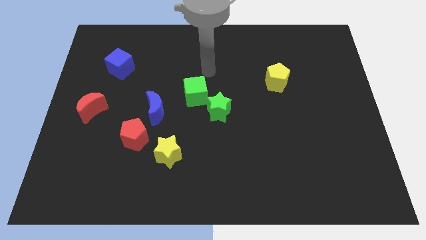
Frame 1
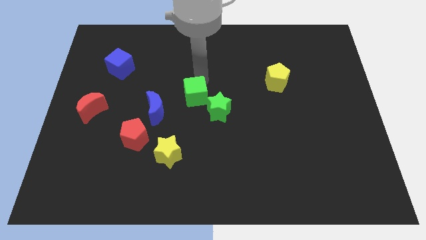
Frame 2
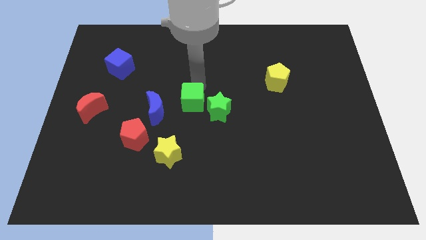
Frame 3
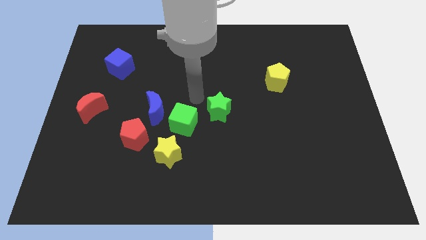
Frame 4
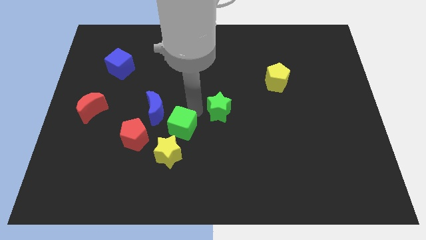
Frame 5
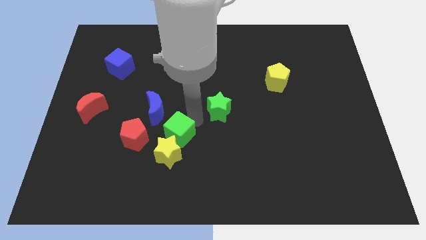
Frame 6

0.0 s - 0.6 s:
move the green star away from the green cube

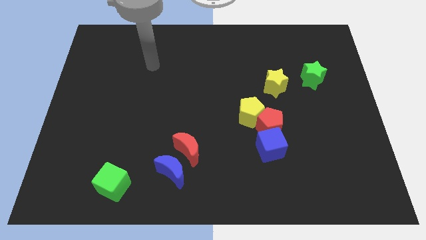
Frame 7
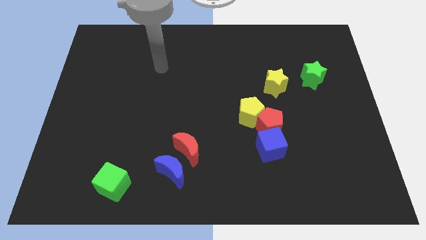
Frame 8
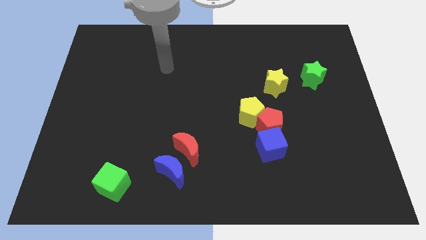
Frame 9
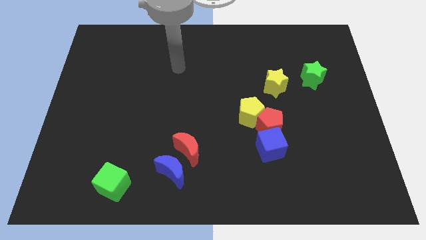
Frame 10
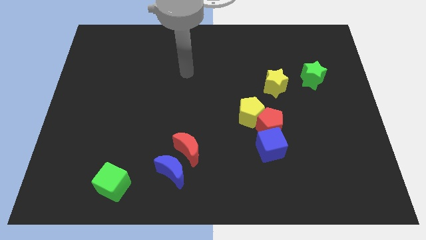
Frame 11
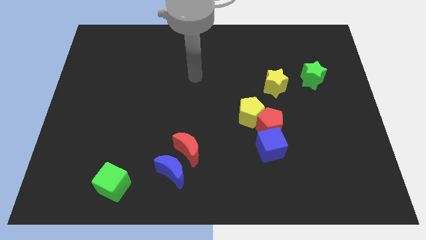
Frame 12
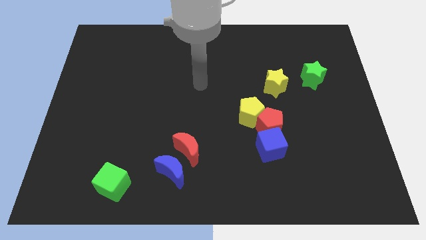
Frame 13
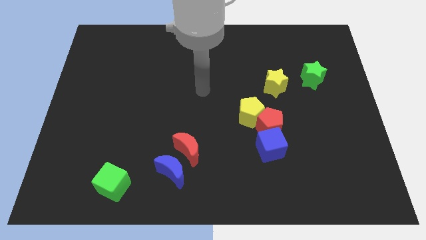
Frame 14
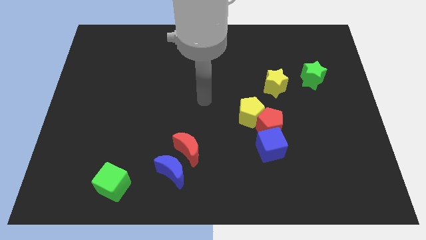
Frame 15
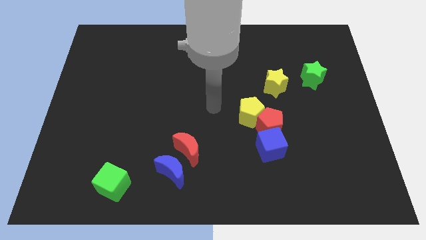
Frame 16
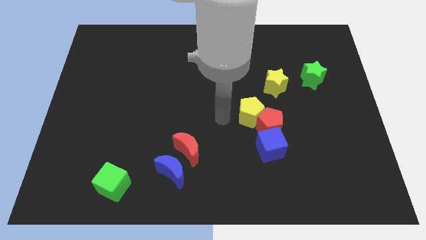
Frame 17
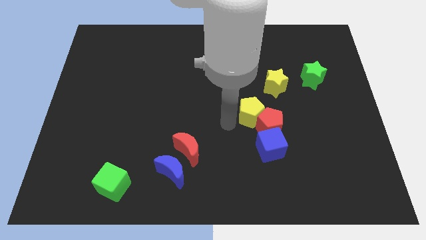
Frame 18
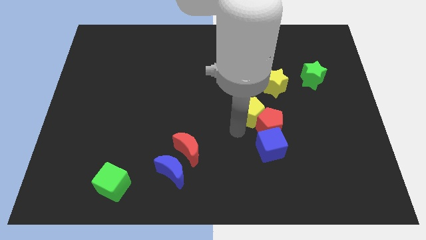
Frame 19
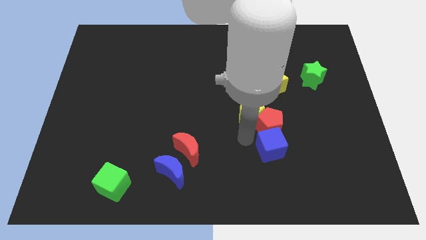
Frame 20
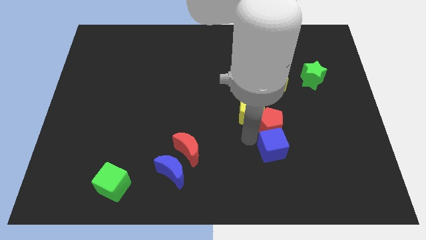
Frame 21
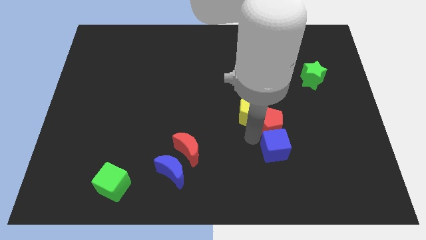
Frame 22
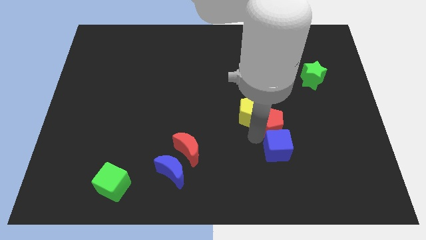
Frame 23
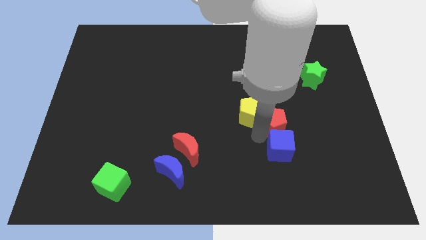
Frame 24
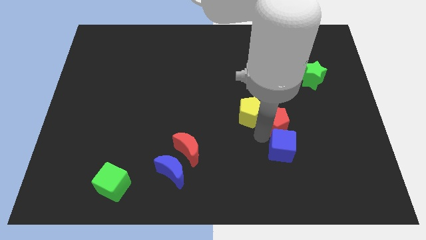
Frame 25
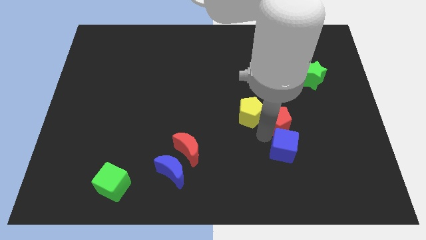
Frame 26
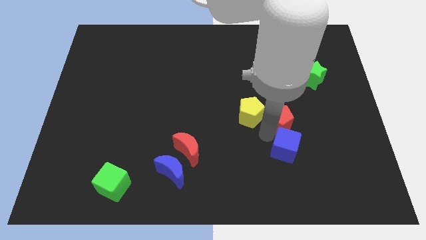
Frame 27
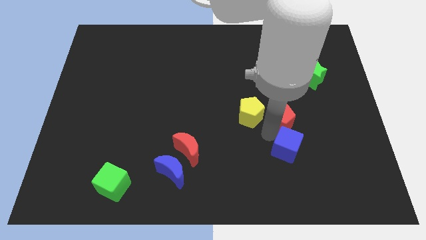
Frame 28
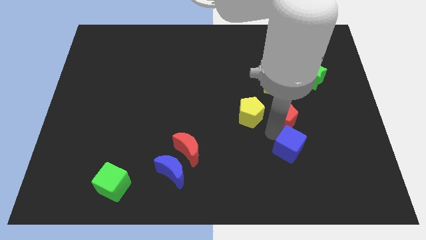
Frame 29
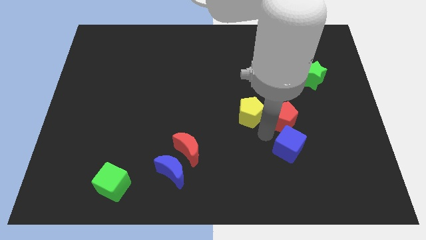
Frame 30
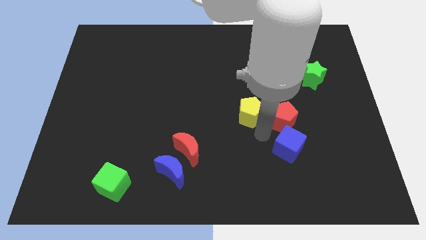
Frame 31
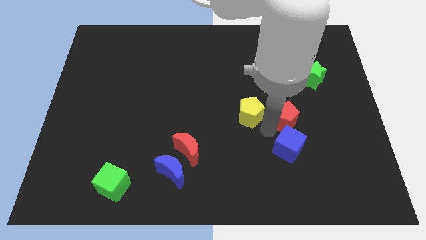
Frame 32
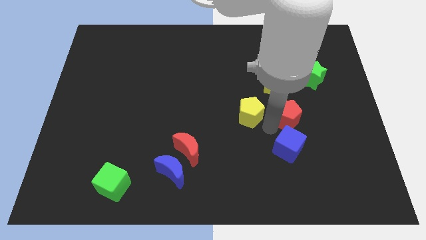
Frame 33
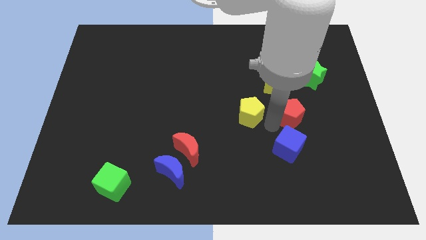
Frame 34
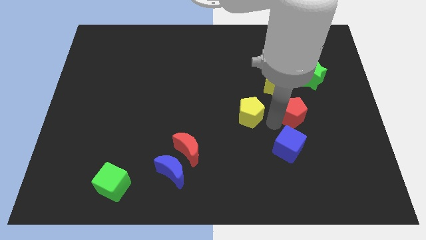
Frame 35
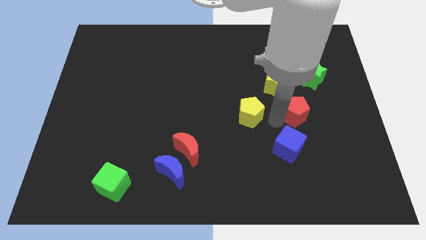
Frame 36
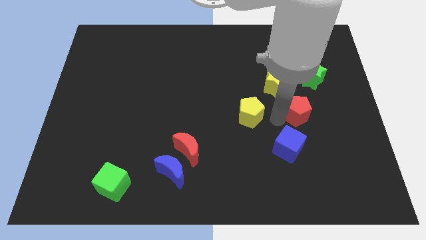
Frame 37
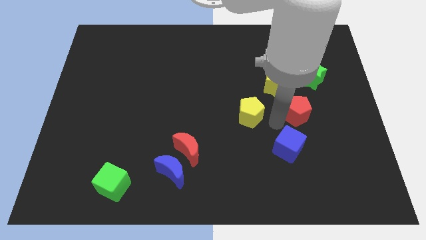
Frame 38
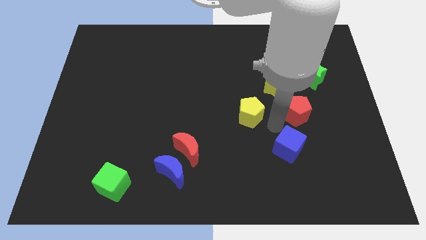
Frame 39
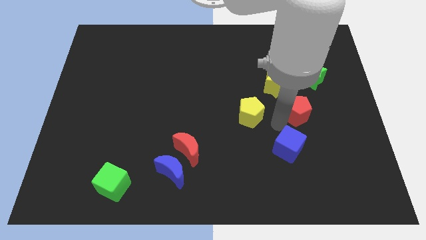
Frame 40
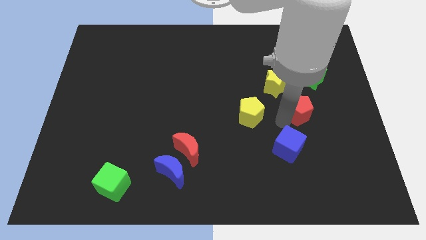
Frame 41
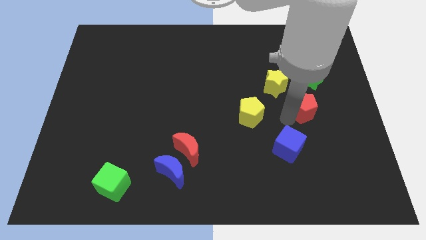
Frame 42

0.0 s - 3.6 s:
pull the red pentagon apart from the yellow pentagon and blue cube

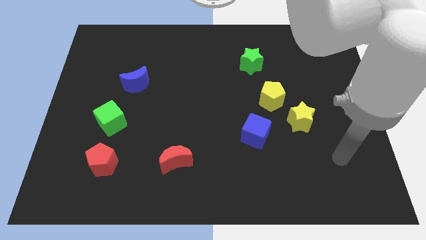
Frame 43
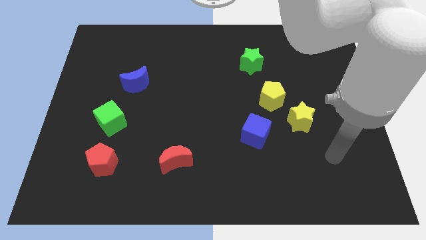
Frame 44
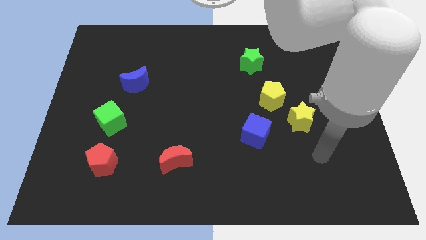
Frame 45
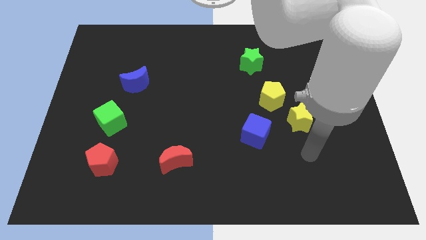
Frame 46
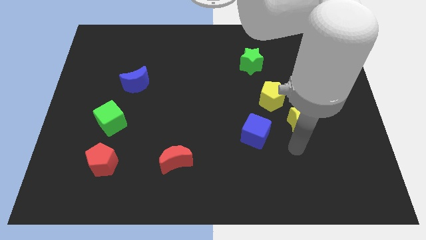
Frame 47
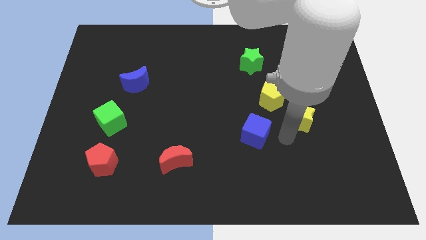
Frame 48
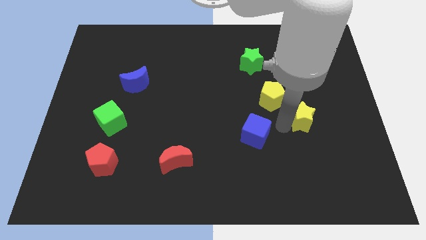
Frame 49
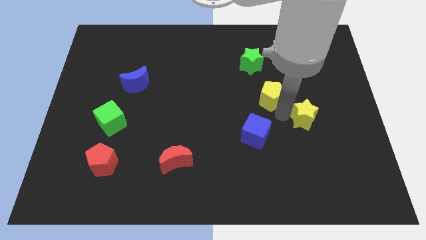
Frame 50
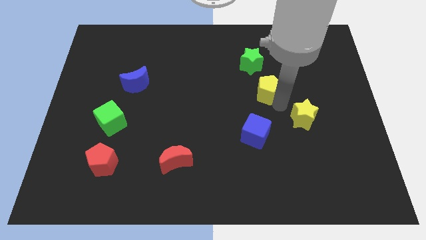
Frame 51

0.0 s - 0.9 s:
move the yellow star away from the yellow pentagon

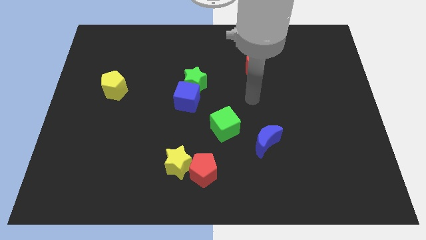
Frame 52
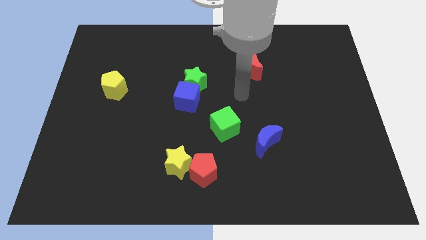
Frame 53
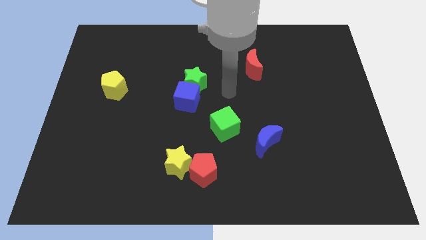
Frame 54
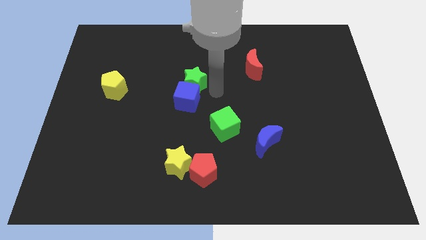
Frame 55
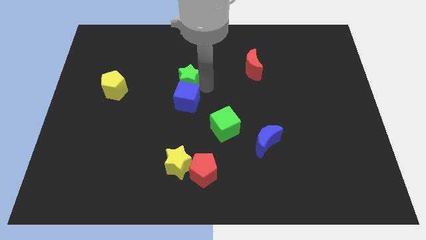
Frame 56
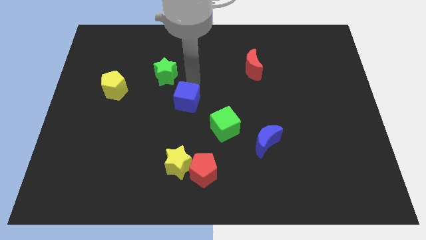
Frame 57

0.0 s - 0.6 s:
move the blue cube away from the green star

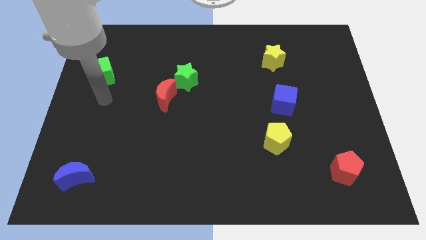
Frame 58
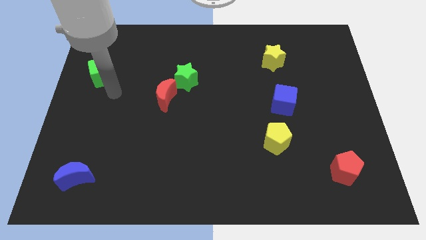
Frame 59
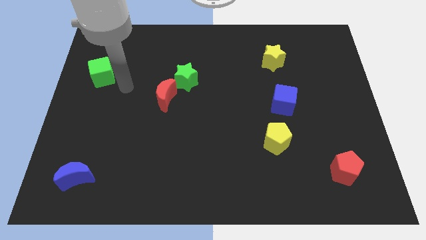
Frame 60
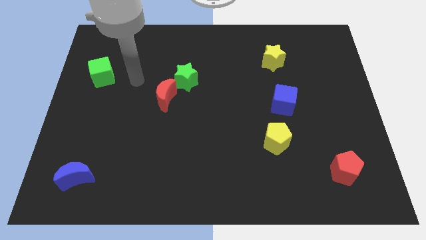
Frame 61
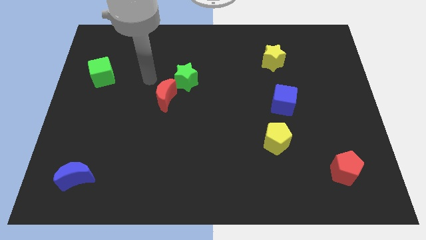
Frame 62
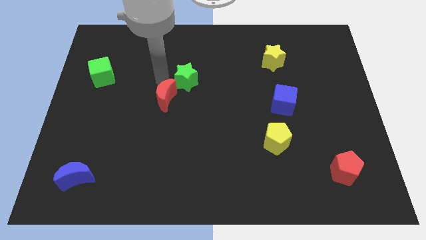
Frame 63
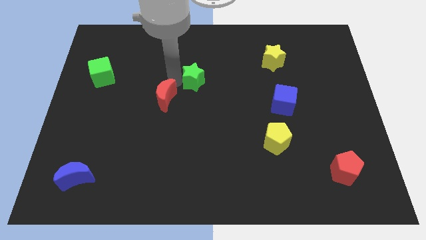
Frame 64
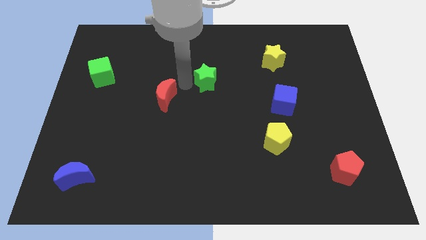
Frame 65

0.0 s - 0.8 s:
pull the red moon apart from the green star

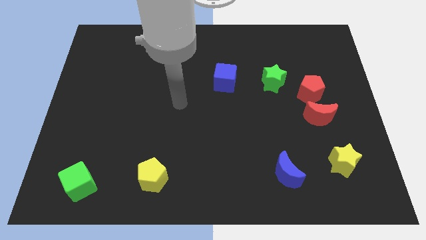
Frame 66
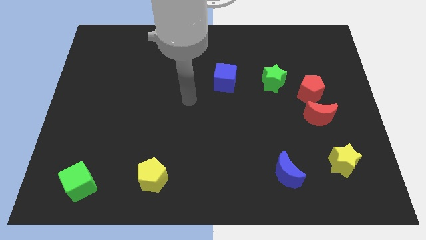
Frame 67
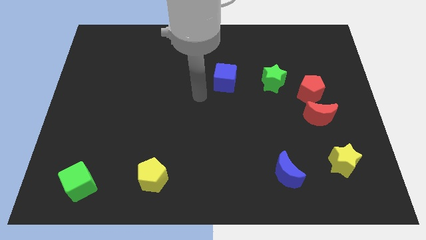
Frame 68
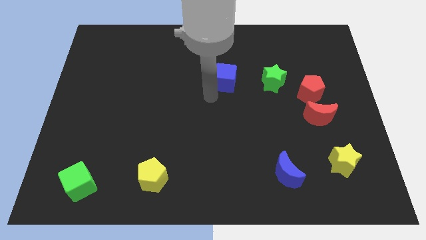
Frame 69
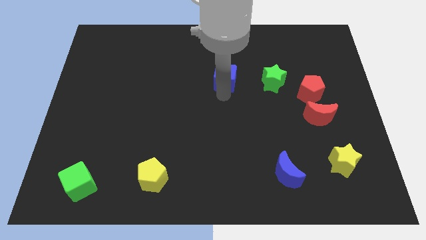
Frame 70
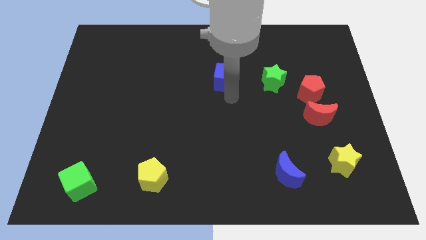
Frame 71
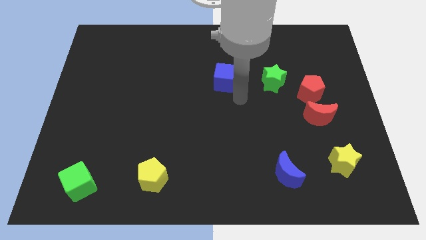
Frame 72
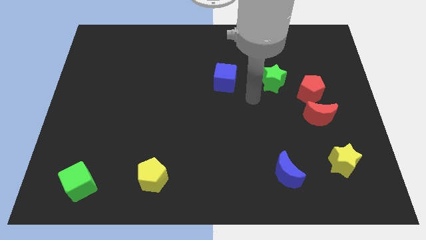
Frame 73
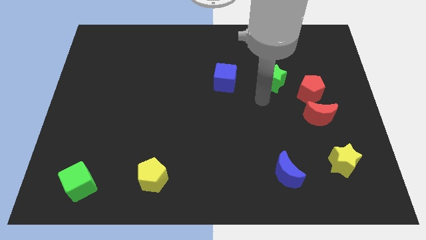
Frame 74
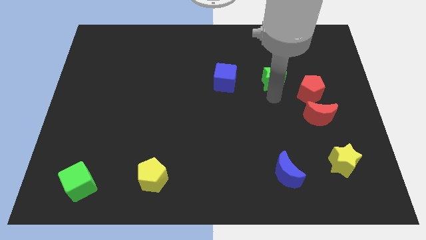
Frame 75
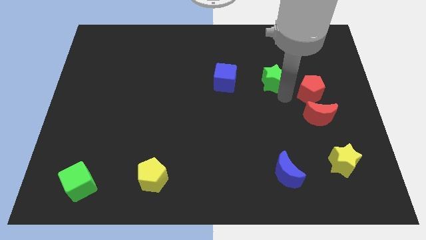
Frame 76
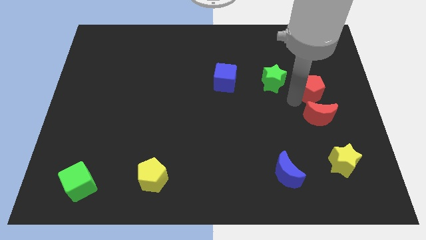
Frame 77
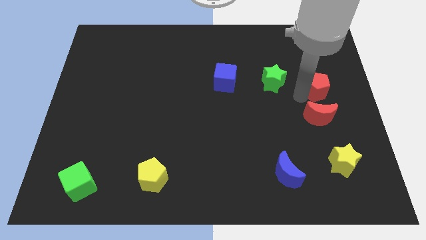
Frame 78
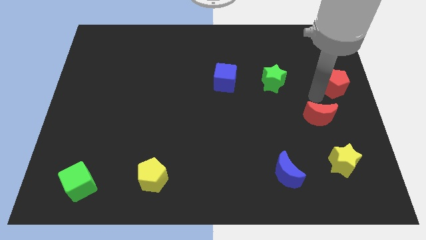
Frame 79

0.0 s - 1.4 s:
pull the red moon apart from the red pentagon

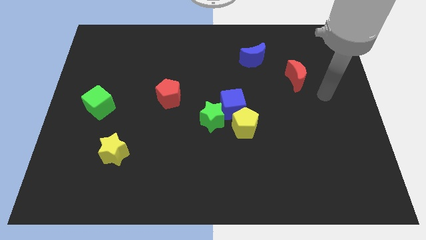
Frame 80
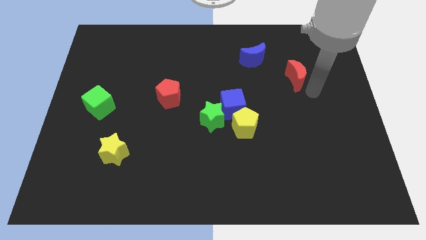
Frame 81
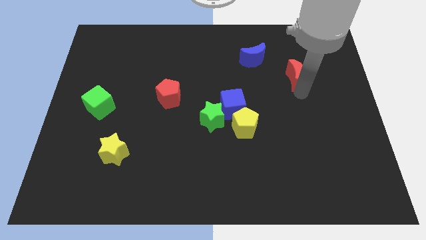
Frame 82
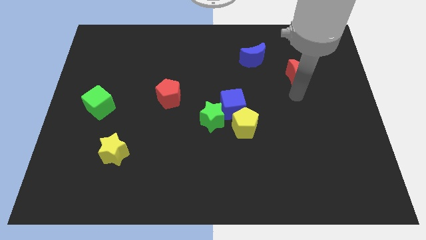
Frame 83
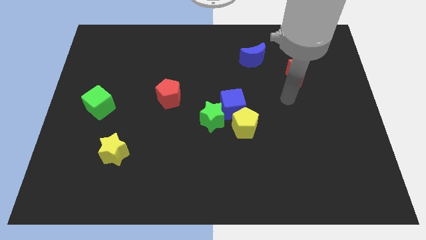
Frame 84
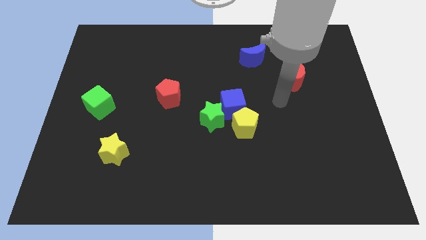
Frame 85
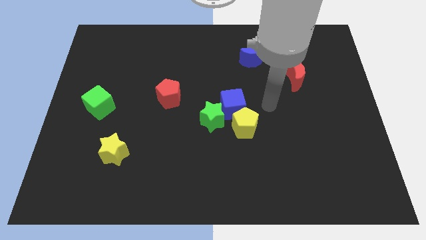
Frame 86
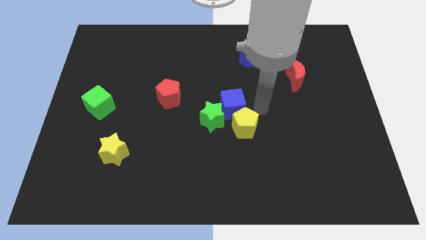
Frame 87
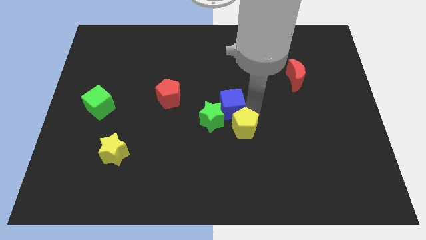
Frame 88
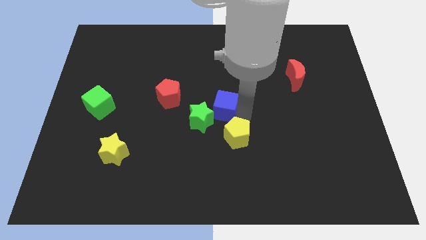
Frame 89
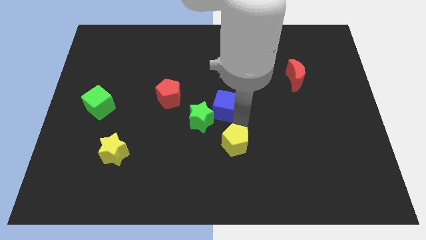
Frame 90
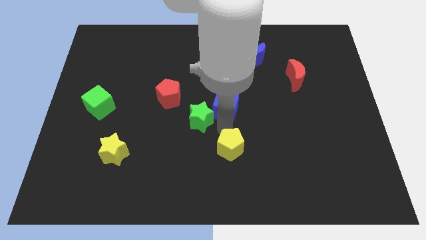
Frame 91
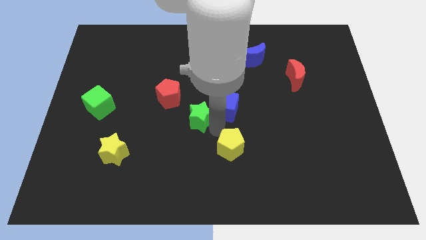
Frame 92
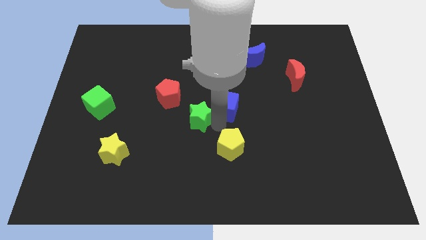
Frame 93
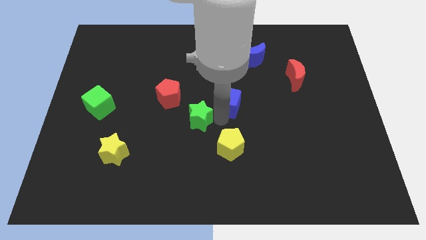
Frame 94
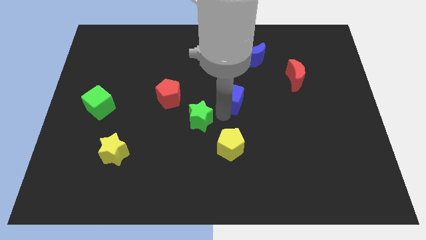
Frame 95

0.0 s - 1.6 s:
separate the blue cube from the green star and yellow pentagon
